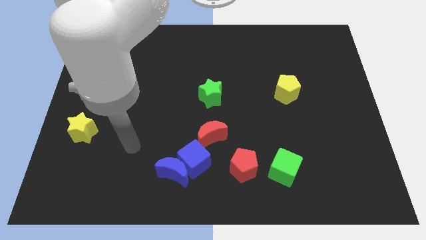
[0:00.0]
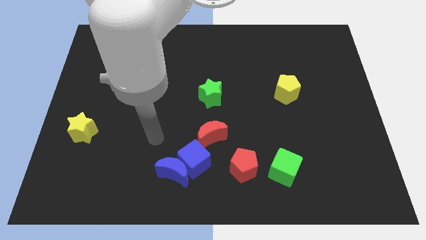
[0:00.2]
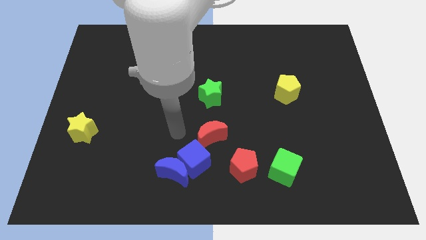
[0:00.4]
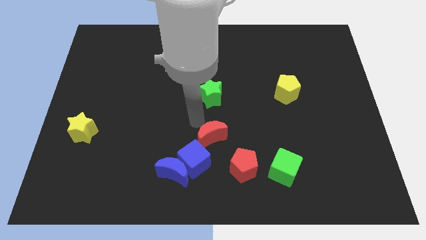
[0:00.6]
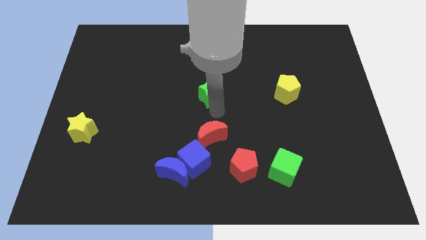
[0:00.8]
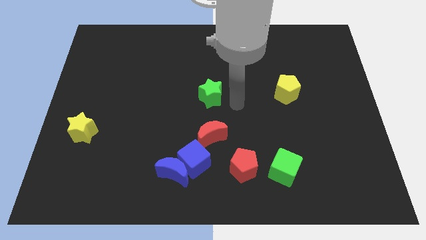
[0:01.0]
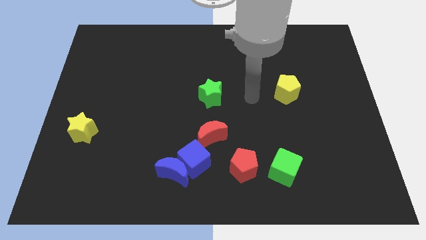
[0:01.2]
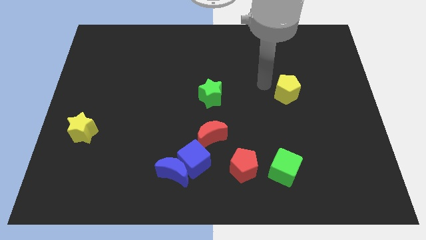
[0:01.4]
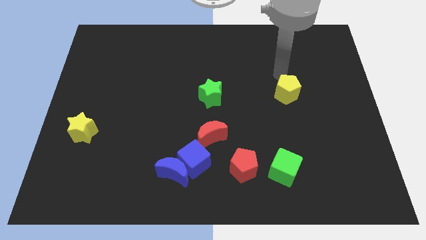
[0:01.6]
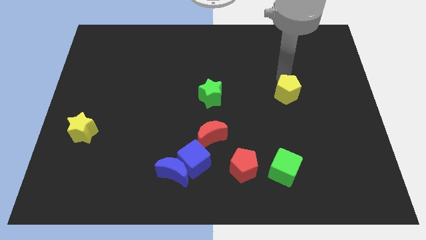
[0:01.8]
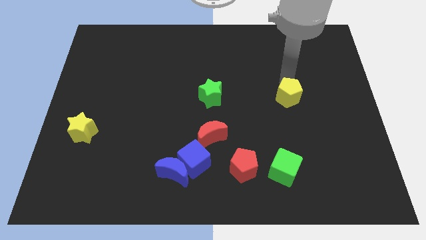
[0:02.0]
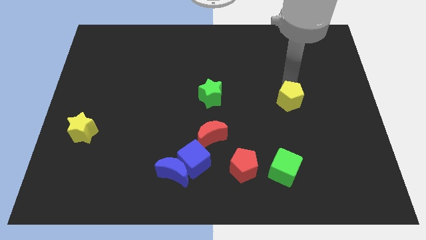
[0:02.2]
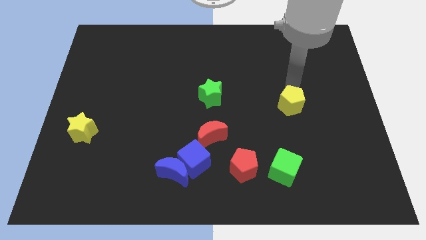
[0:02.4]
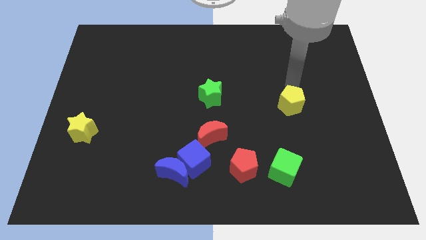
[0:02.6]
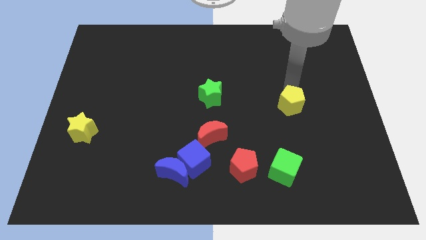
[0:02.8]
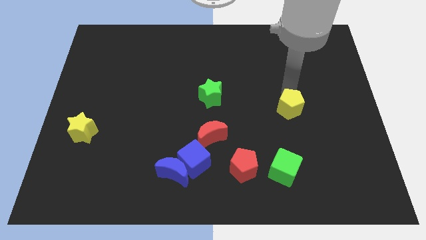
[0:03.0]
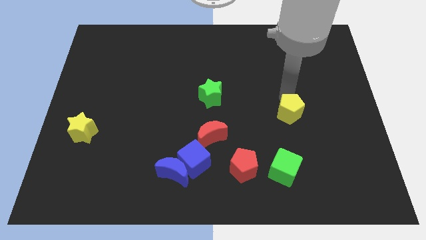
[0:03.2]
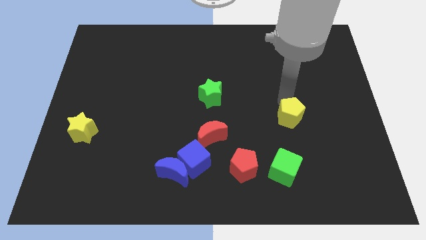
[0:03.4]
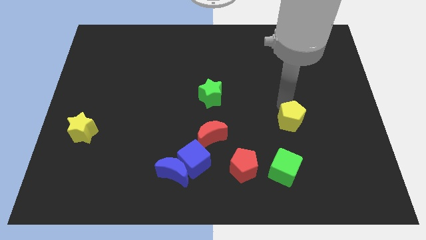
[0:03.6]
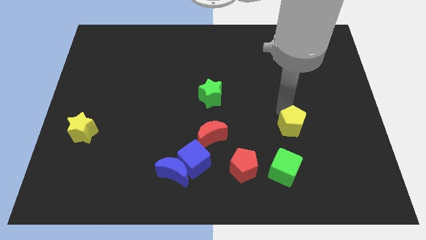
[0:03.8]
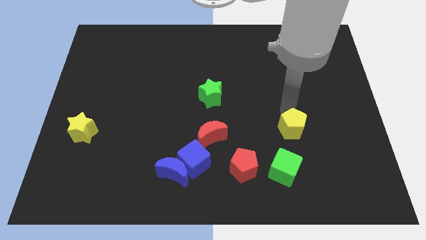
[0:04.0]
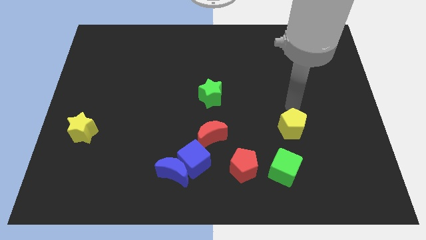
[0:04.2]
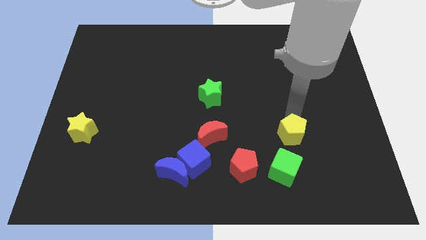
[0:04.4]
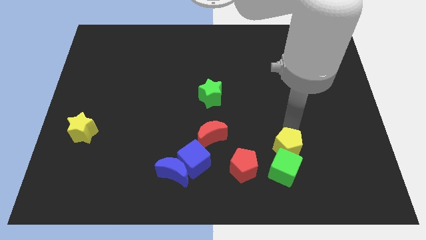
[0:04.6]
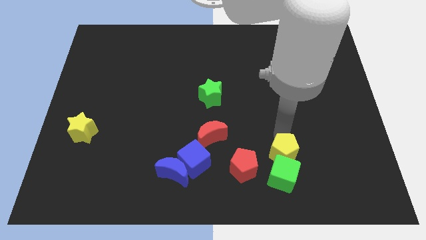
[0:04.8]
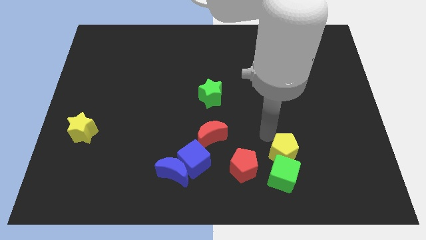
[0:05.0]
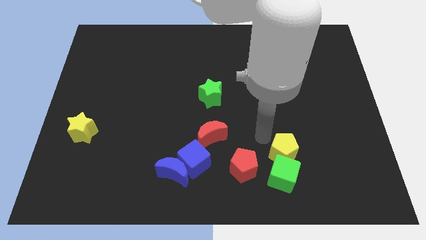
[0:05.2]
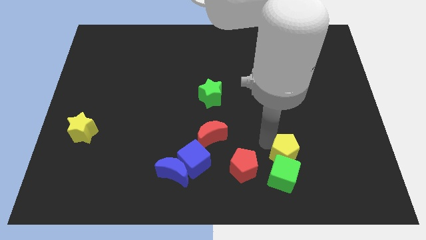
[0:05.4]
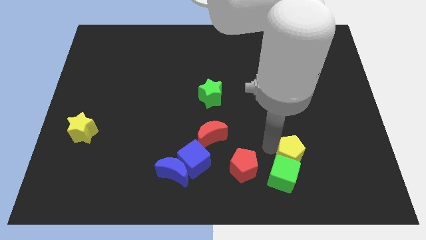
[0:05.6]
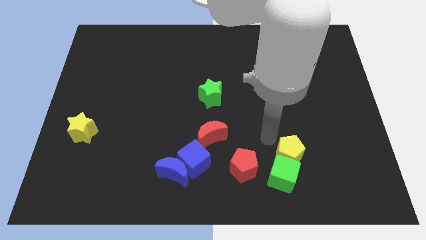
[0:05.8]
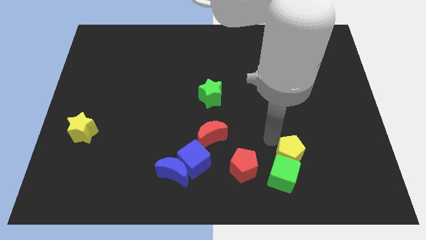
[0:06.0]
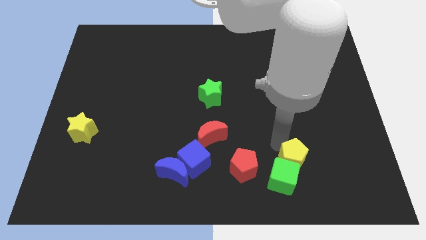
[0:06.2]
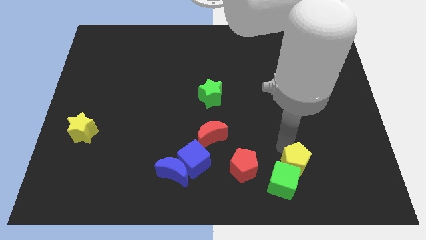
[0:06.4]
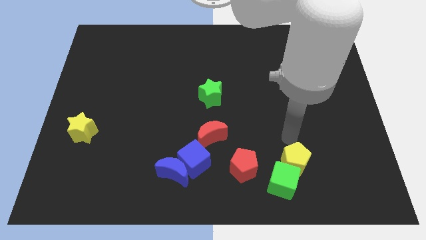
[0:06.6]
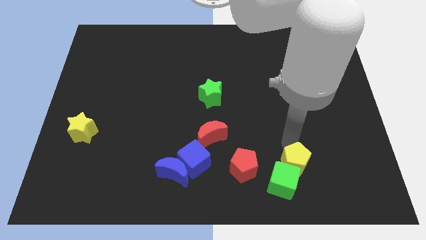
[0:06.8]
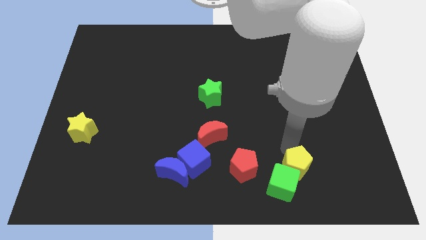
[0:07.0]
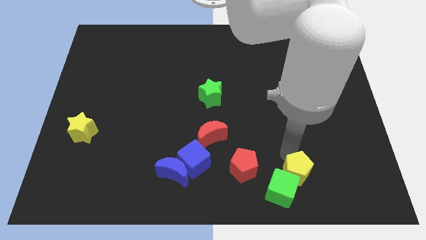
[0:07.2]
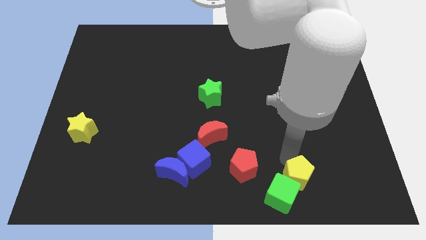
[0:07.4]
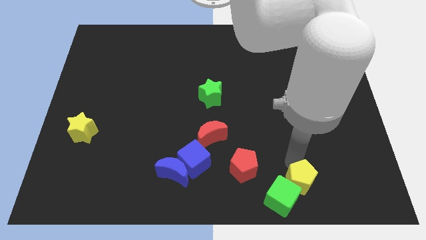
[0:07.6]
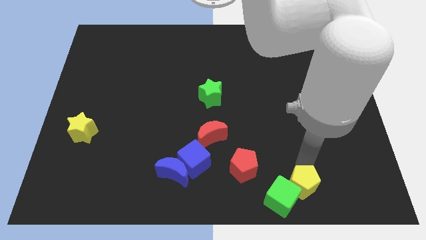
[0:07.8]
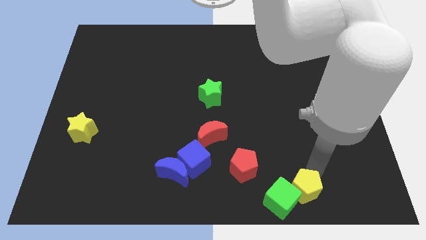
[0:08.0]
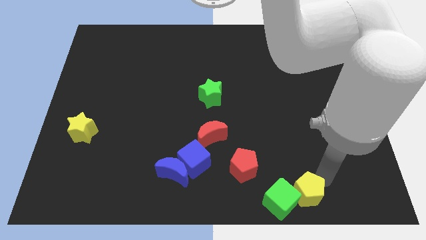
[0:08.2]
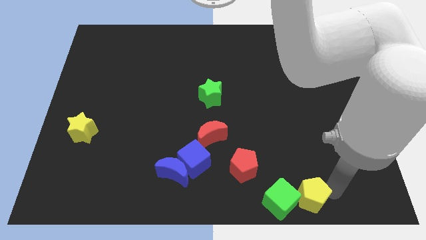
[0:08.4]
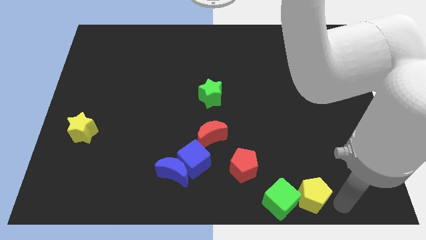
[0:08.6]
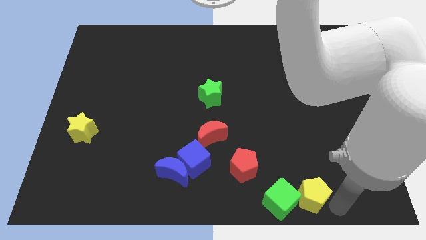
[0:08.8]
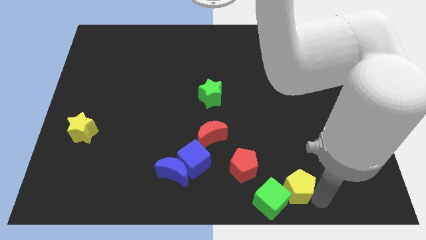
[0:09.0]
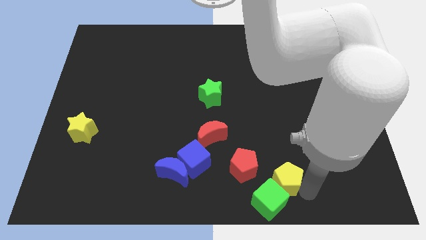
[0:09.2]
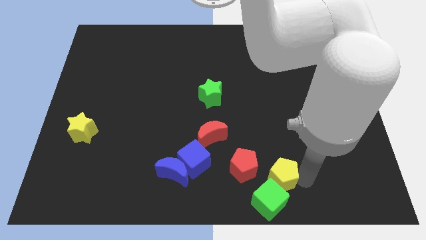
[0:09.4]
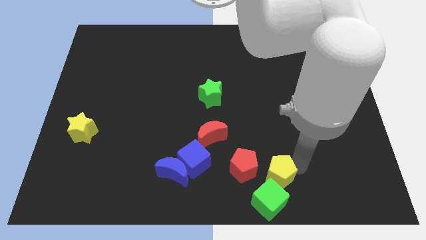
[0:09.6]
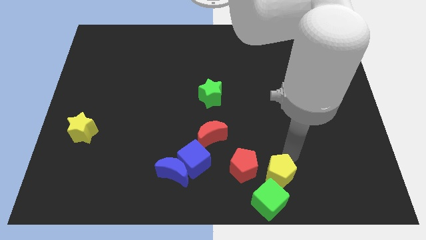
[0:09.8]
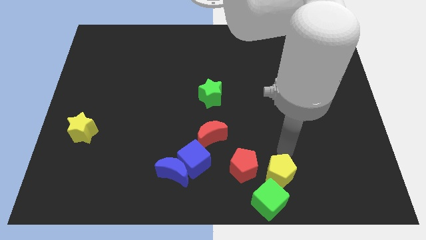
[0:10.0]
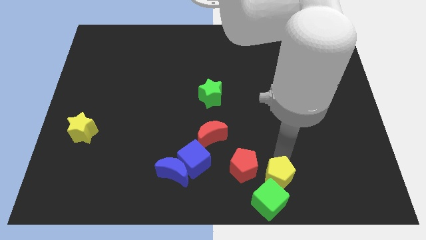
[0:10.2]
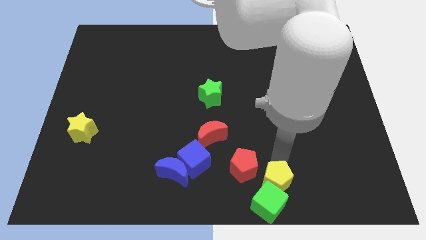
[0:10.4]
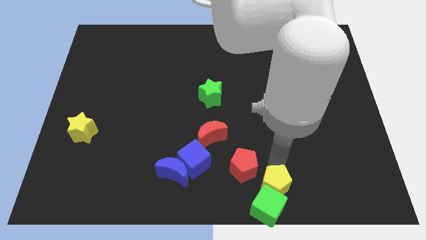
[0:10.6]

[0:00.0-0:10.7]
move the yellow pentagon to the bottom side

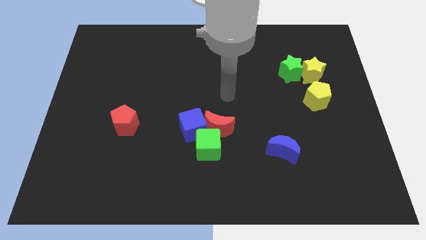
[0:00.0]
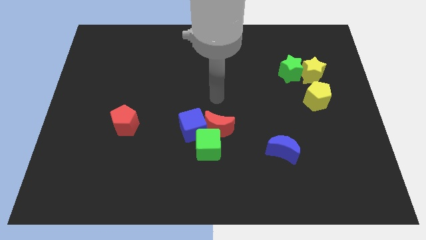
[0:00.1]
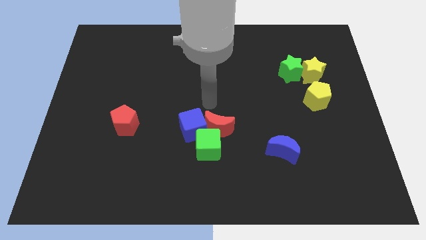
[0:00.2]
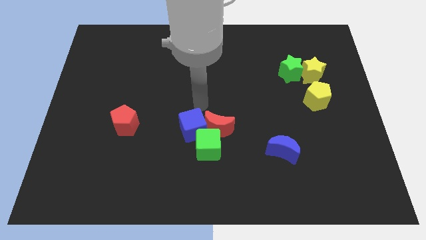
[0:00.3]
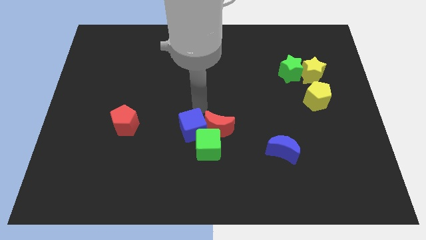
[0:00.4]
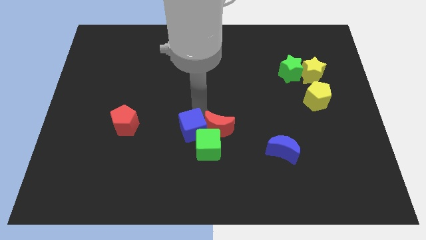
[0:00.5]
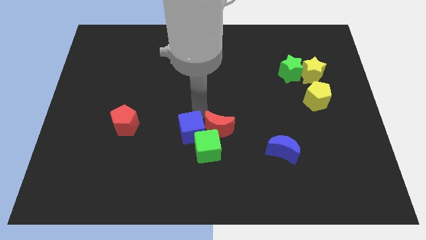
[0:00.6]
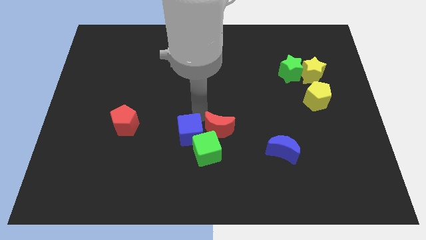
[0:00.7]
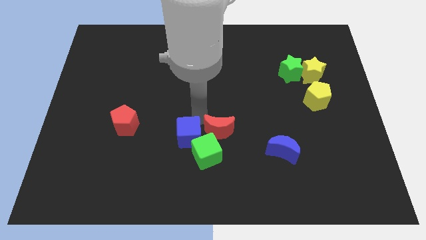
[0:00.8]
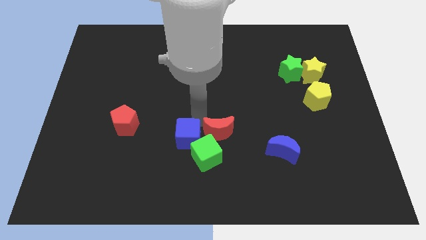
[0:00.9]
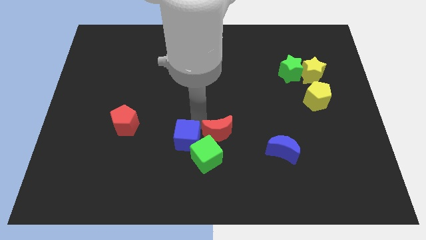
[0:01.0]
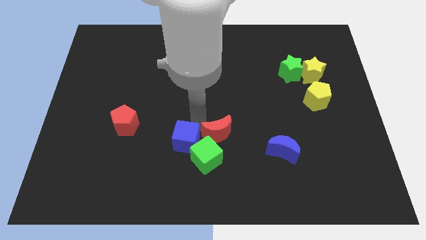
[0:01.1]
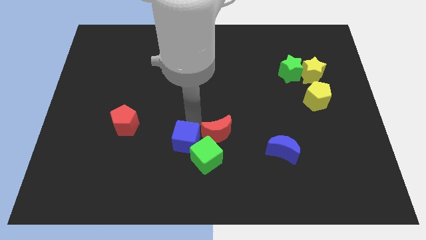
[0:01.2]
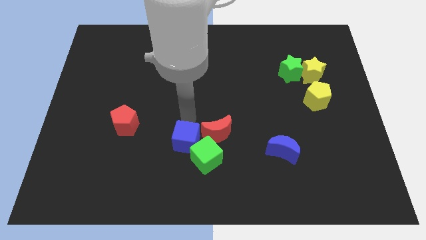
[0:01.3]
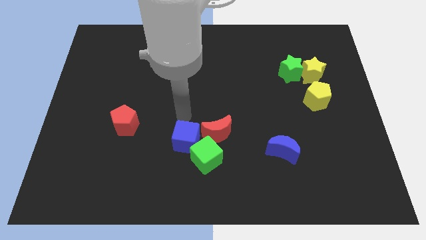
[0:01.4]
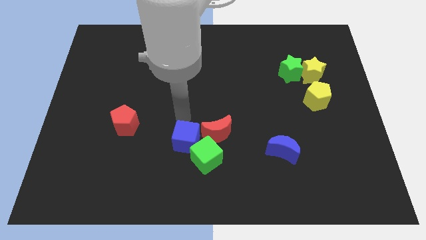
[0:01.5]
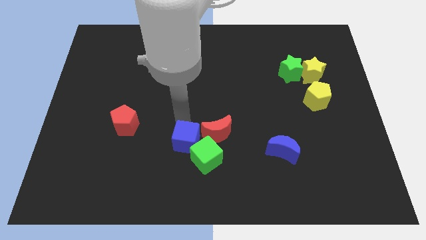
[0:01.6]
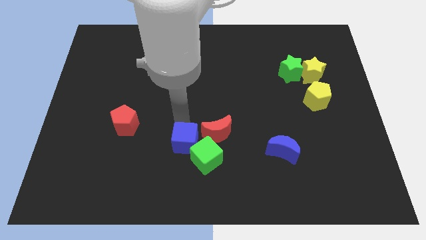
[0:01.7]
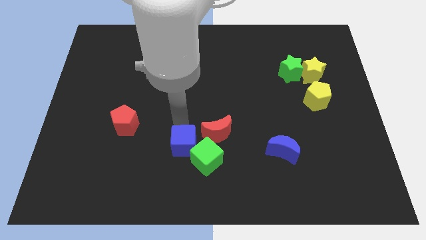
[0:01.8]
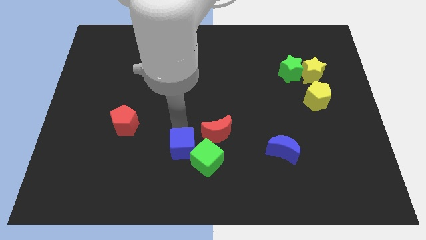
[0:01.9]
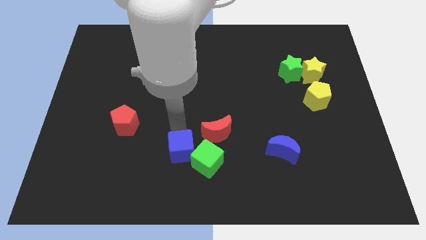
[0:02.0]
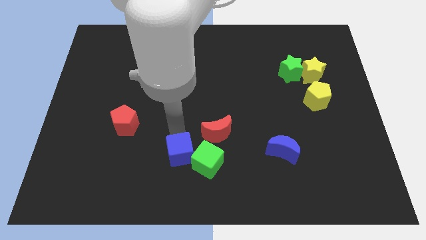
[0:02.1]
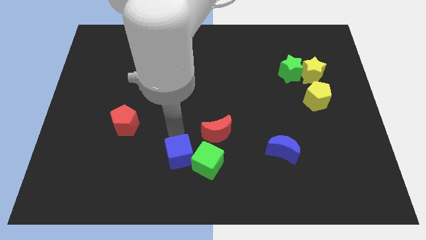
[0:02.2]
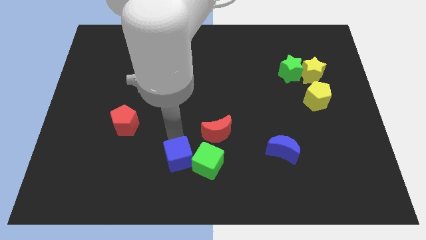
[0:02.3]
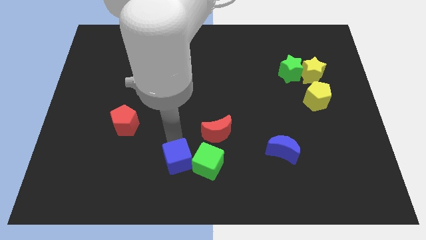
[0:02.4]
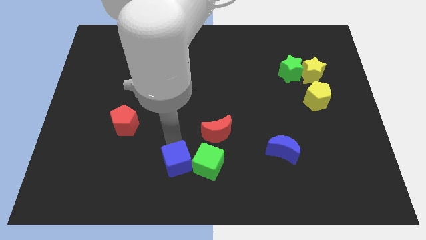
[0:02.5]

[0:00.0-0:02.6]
slide the blue cube to the bottom

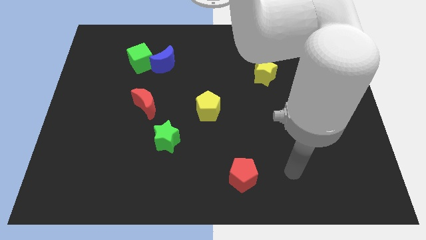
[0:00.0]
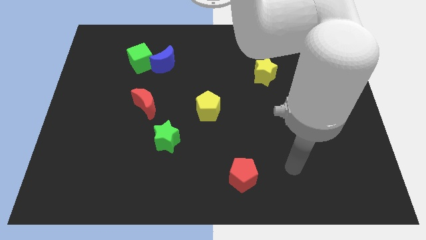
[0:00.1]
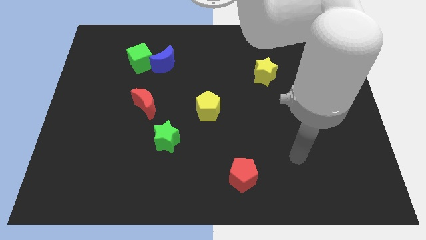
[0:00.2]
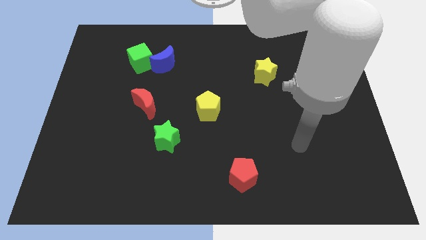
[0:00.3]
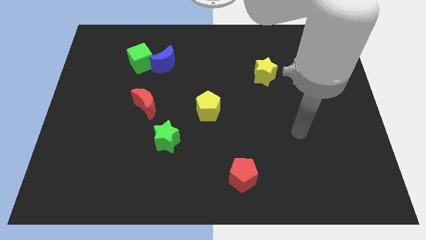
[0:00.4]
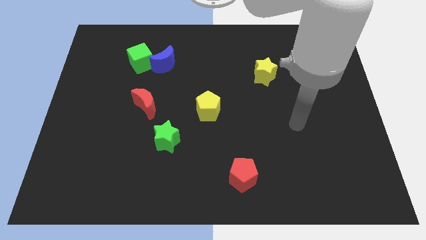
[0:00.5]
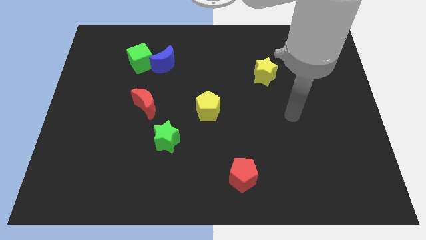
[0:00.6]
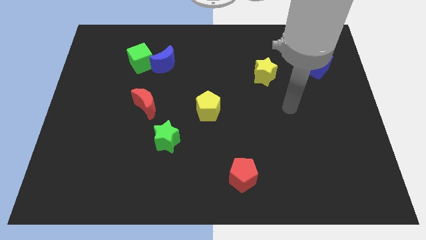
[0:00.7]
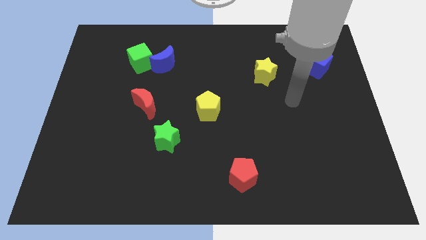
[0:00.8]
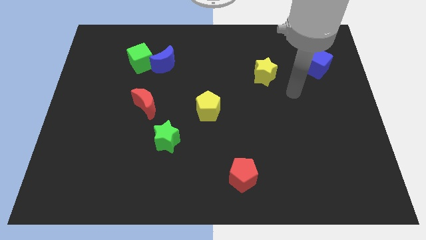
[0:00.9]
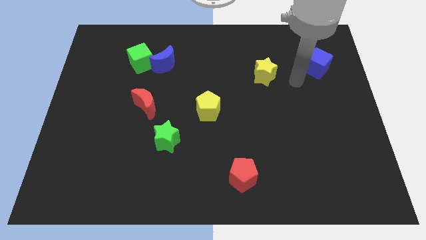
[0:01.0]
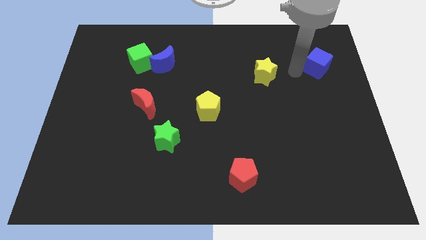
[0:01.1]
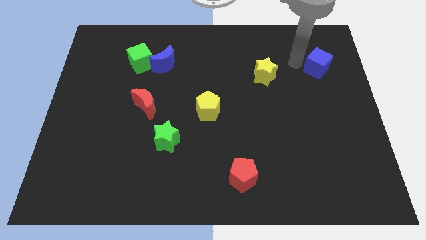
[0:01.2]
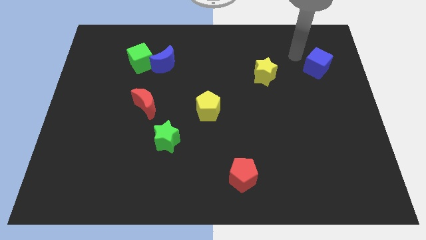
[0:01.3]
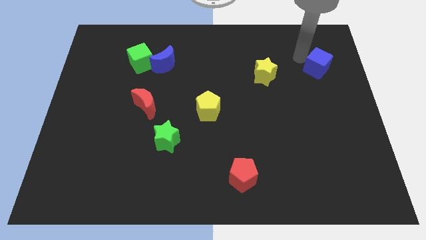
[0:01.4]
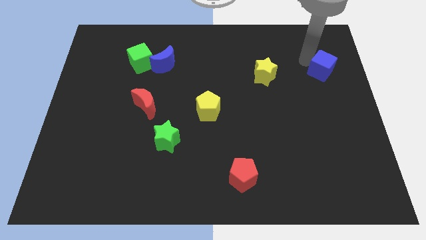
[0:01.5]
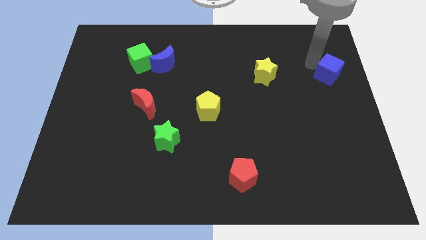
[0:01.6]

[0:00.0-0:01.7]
put the blue cube to the center right
